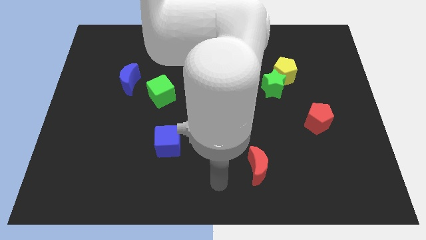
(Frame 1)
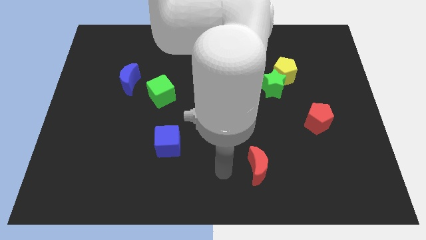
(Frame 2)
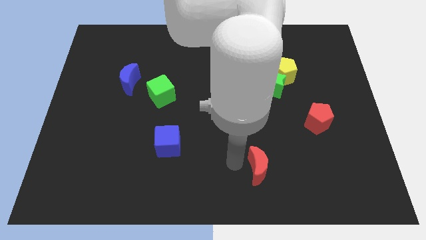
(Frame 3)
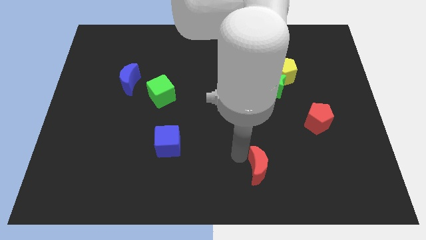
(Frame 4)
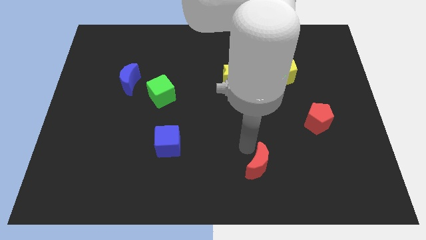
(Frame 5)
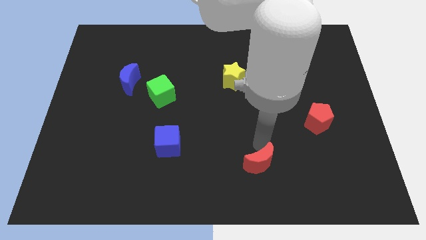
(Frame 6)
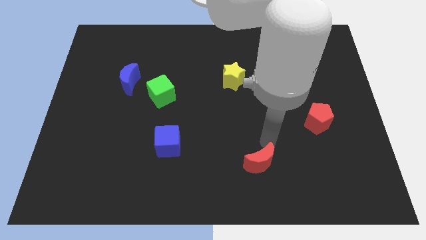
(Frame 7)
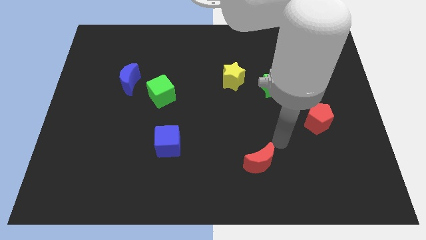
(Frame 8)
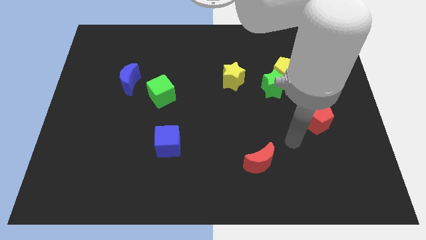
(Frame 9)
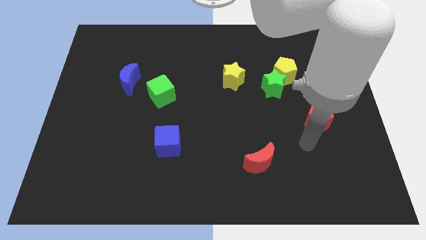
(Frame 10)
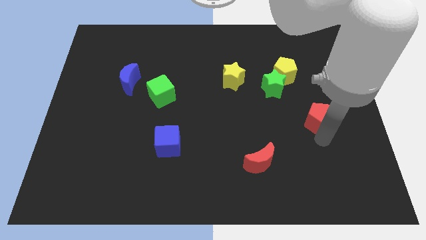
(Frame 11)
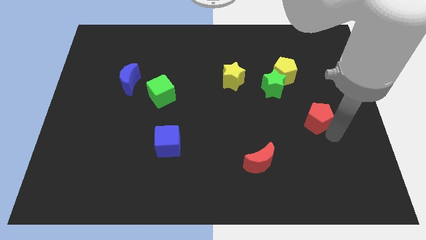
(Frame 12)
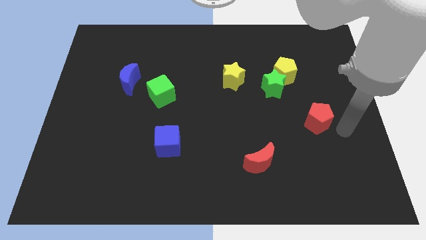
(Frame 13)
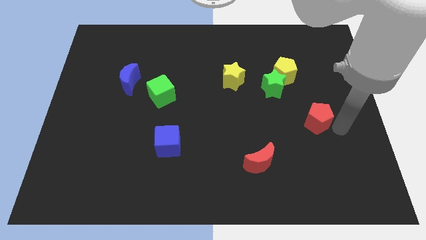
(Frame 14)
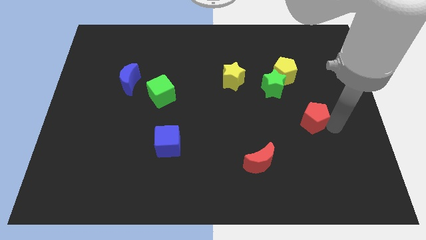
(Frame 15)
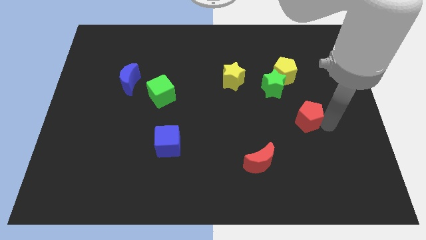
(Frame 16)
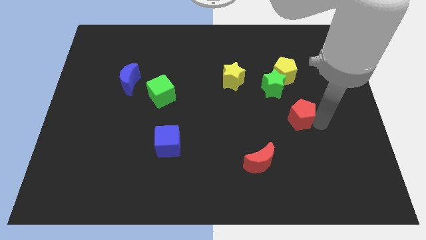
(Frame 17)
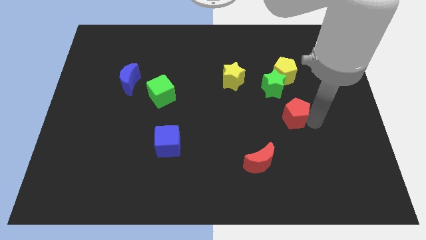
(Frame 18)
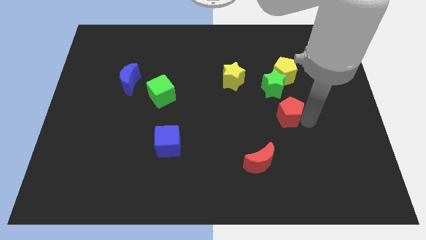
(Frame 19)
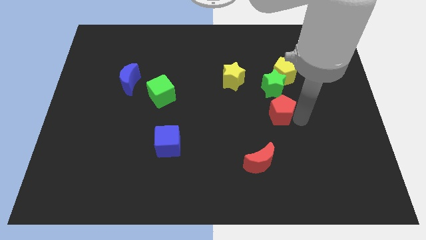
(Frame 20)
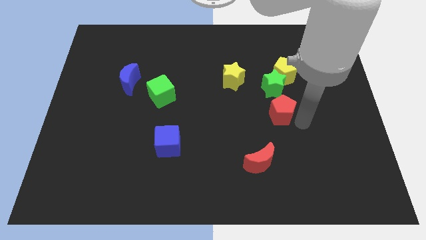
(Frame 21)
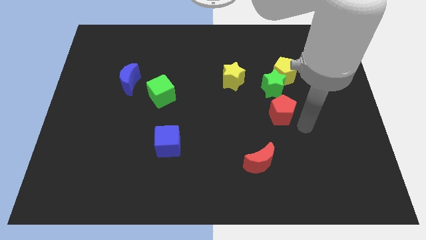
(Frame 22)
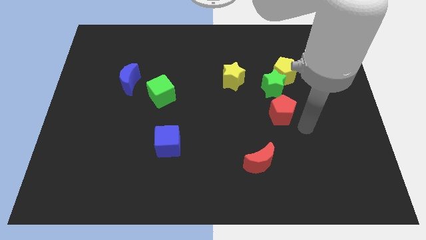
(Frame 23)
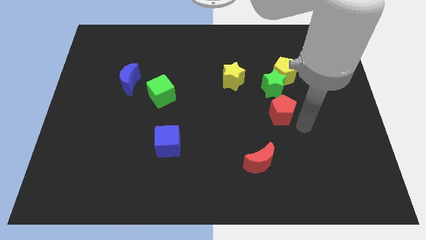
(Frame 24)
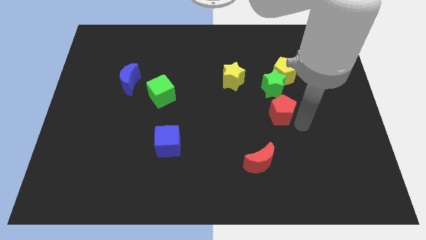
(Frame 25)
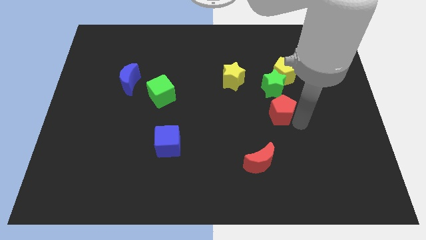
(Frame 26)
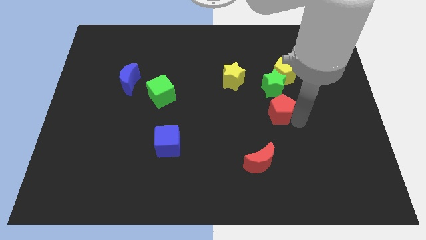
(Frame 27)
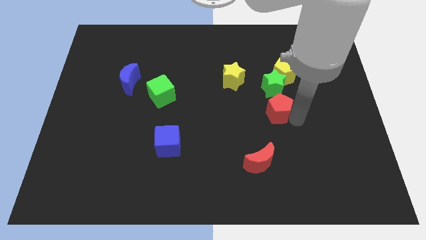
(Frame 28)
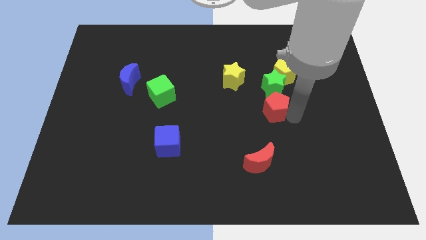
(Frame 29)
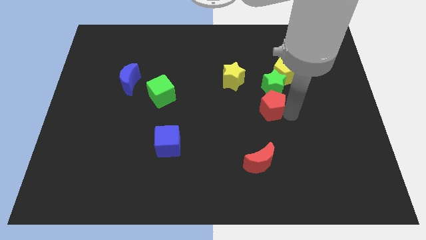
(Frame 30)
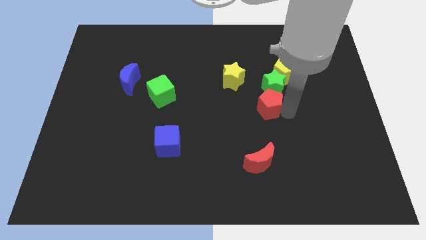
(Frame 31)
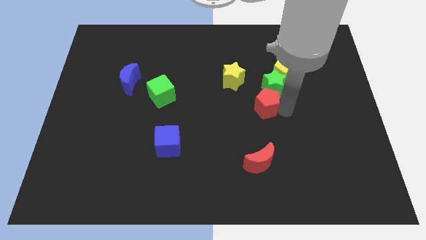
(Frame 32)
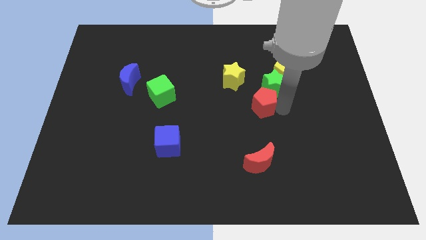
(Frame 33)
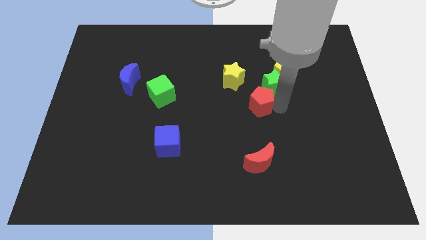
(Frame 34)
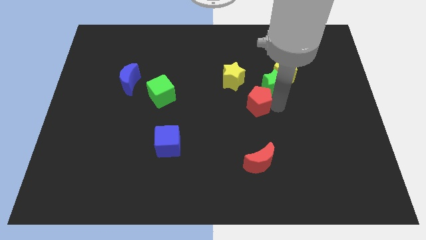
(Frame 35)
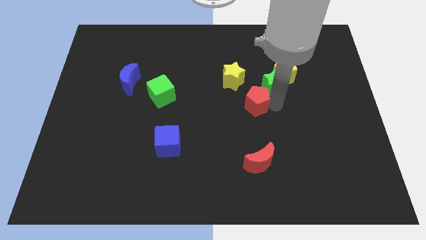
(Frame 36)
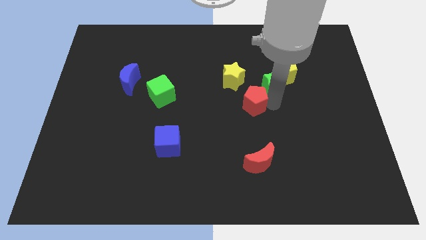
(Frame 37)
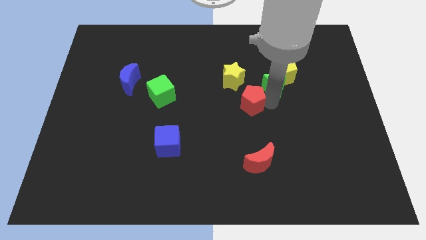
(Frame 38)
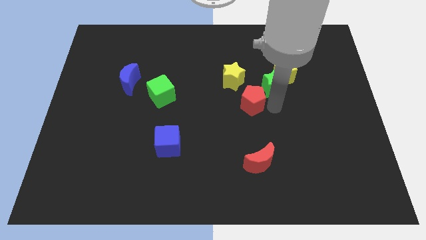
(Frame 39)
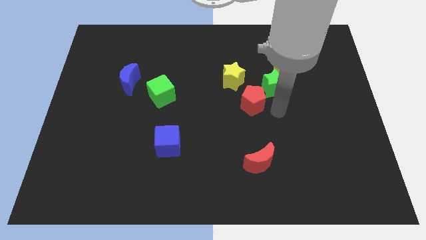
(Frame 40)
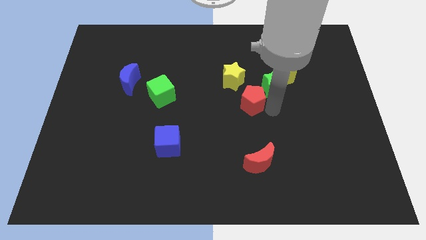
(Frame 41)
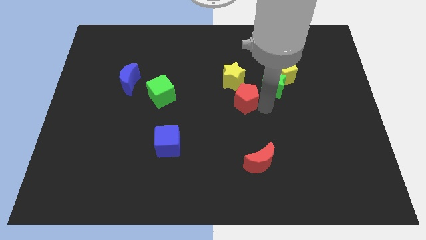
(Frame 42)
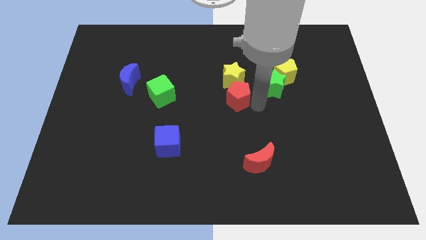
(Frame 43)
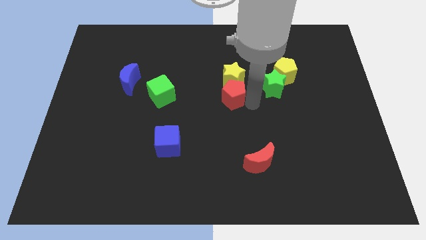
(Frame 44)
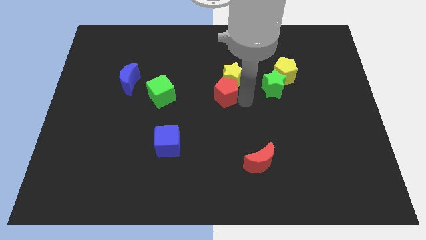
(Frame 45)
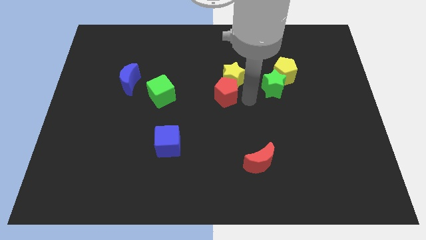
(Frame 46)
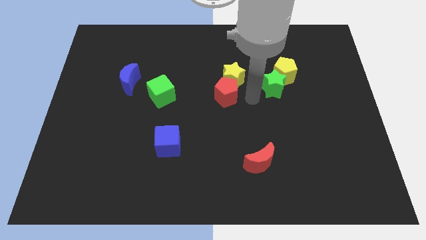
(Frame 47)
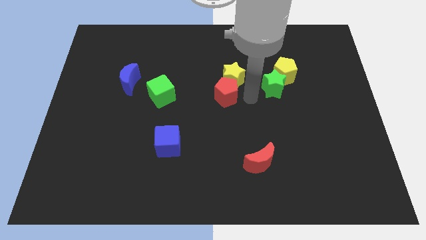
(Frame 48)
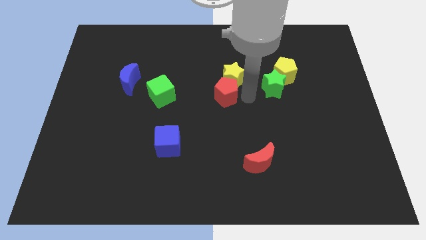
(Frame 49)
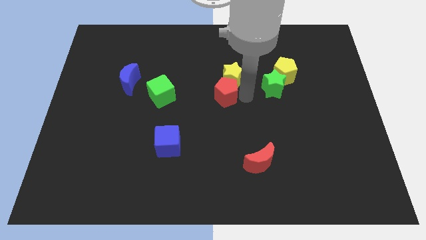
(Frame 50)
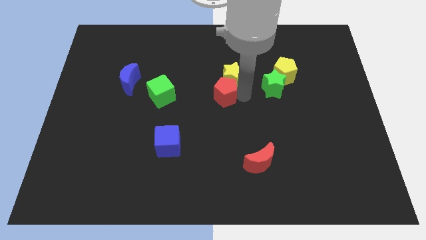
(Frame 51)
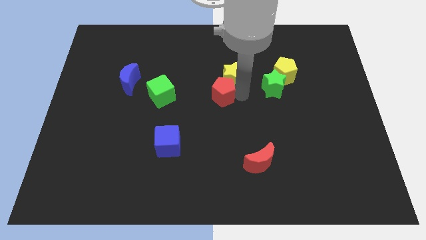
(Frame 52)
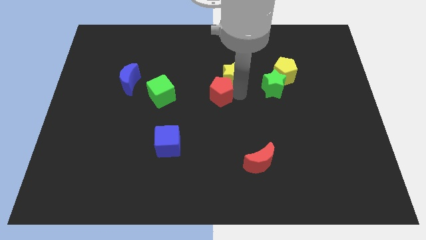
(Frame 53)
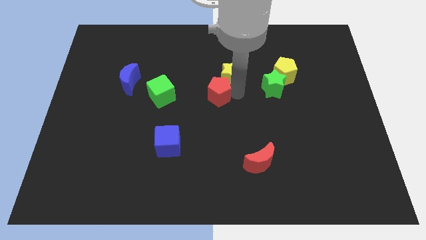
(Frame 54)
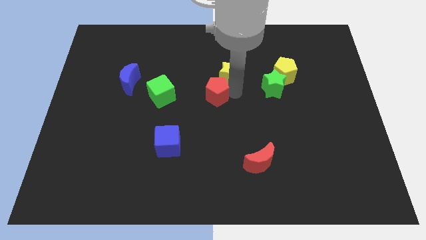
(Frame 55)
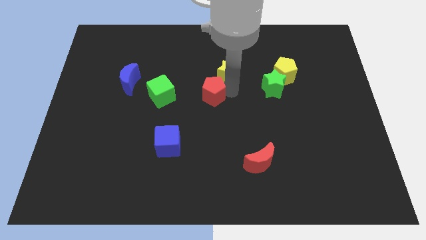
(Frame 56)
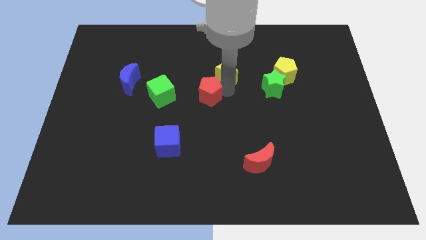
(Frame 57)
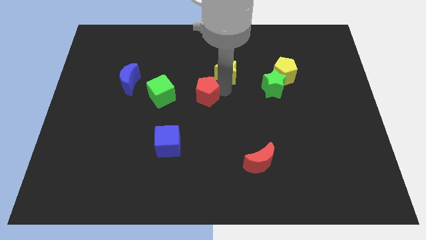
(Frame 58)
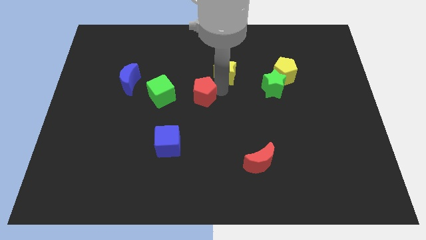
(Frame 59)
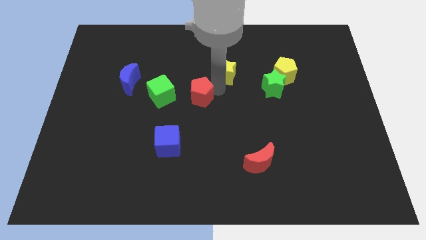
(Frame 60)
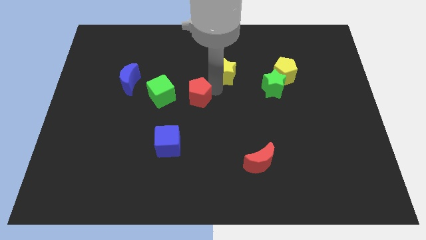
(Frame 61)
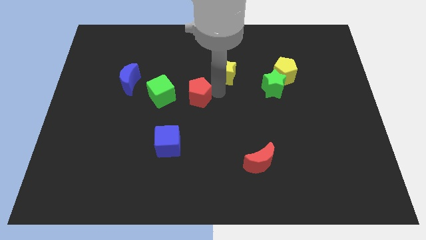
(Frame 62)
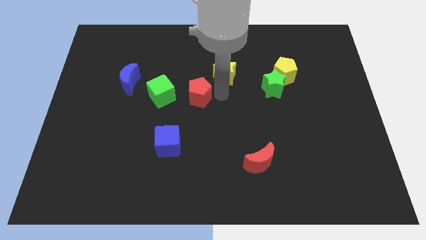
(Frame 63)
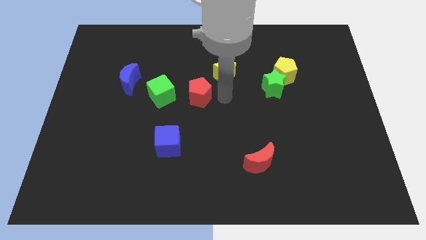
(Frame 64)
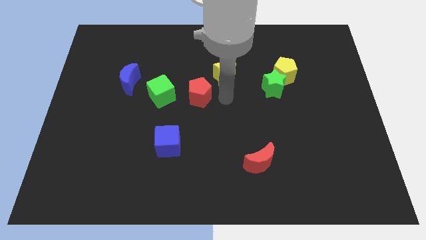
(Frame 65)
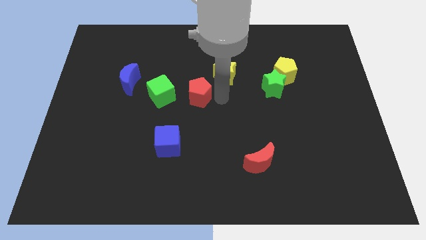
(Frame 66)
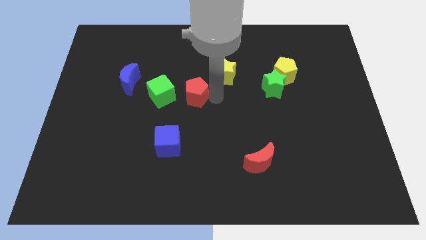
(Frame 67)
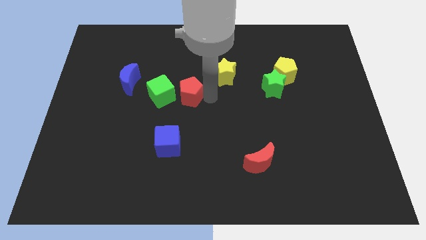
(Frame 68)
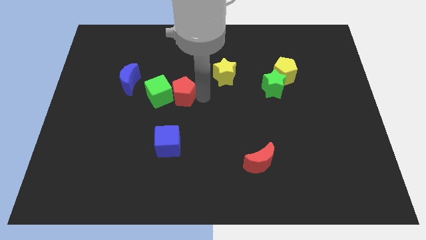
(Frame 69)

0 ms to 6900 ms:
put the red pentagon towards the green cube

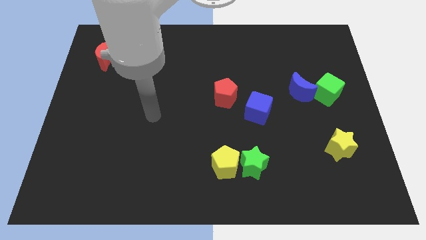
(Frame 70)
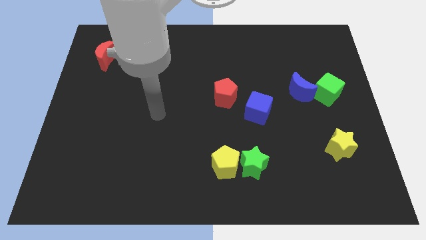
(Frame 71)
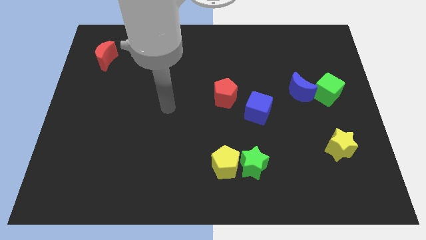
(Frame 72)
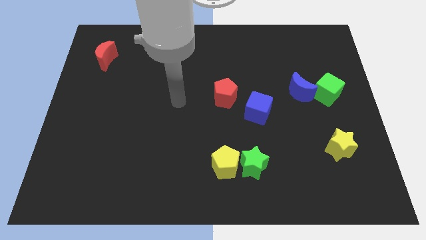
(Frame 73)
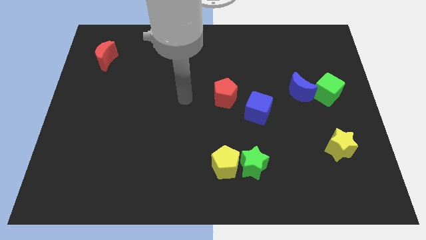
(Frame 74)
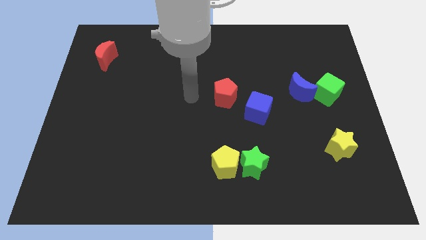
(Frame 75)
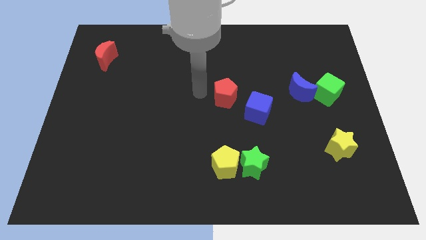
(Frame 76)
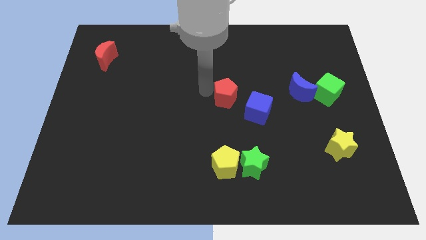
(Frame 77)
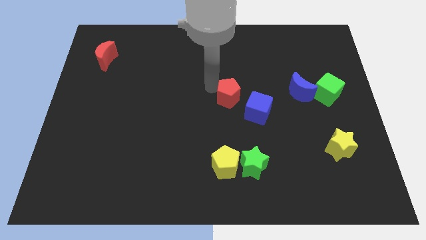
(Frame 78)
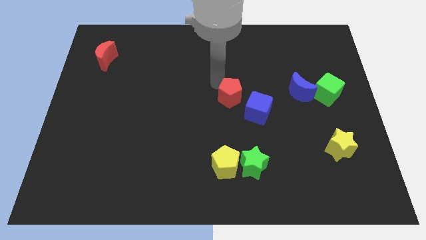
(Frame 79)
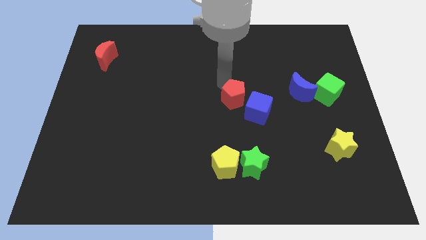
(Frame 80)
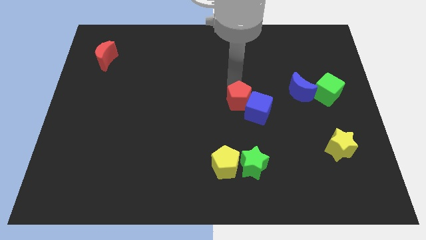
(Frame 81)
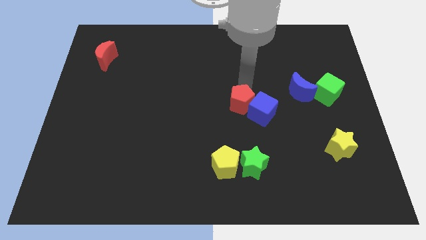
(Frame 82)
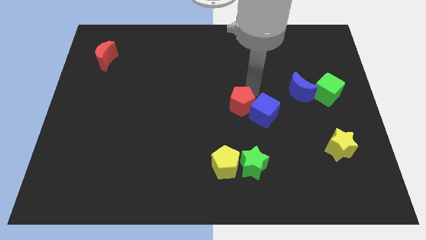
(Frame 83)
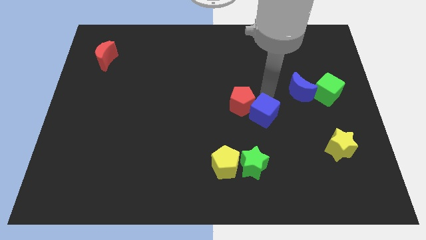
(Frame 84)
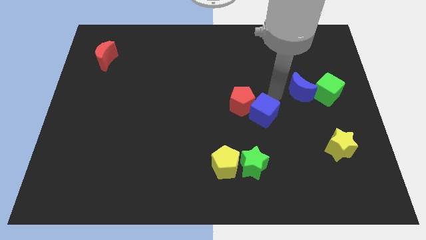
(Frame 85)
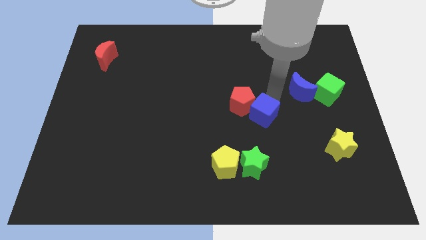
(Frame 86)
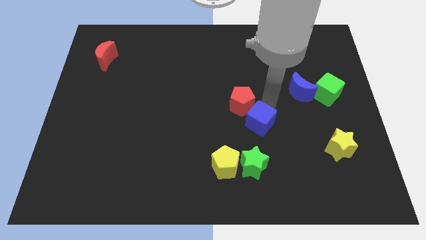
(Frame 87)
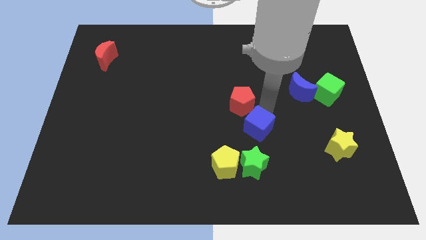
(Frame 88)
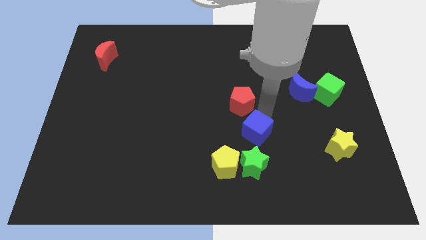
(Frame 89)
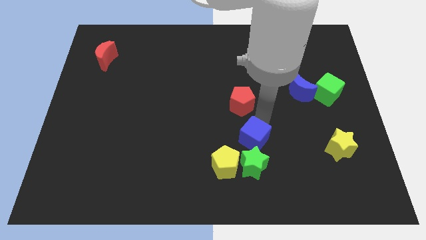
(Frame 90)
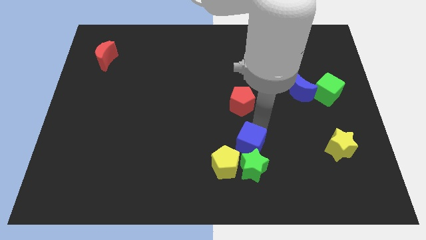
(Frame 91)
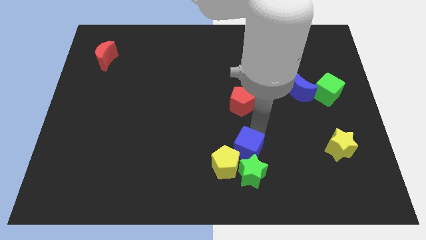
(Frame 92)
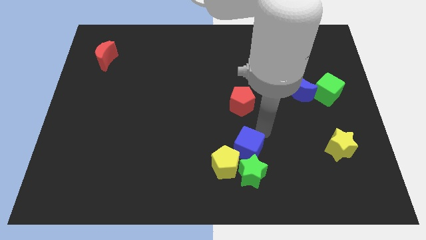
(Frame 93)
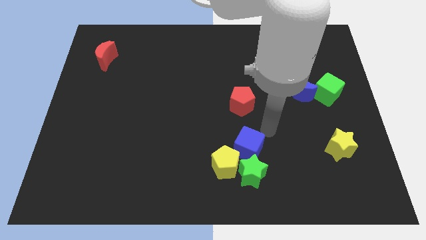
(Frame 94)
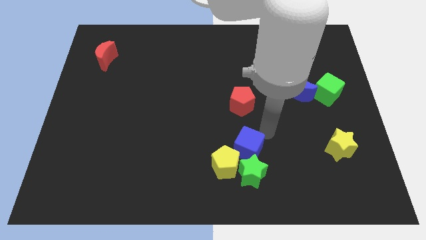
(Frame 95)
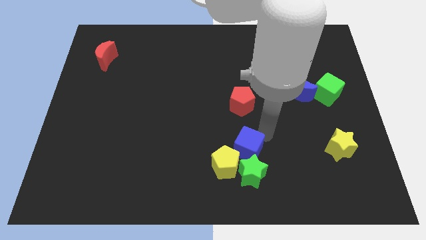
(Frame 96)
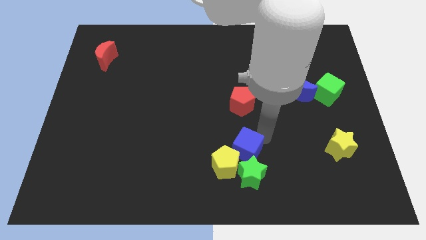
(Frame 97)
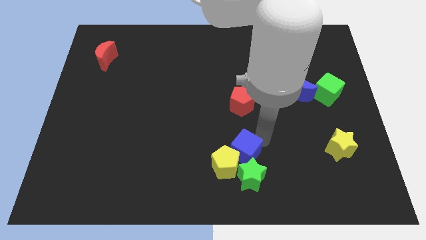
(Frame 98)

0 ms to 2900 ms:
push the blue cube towards the yellow pentagon
